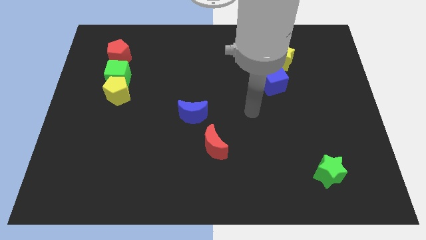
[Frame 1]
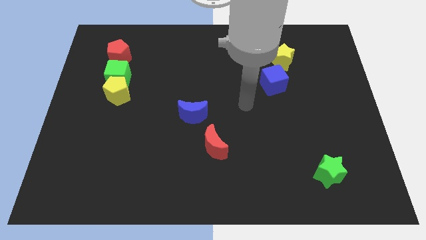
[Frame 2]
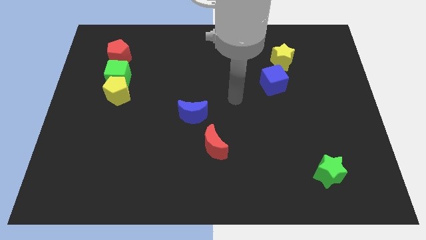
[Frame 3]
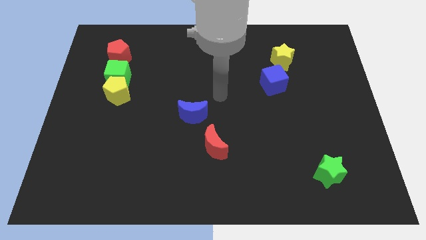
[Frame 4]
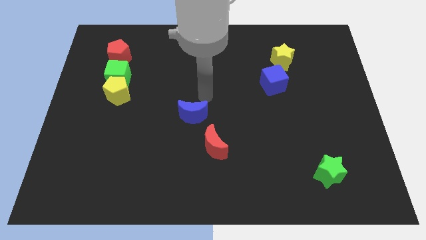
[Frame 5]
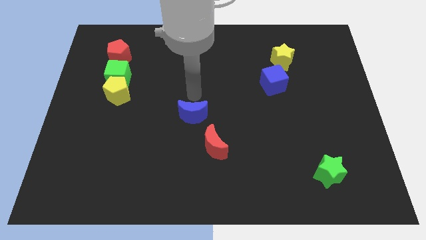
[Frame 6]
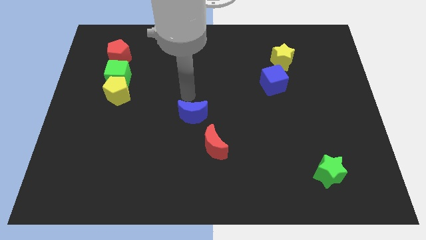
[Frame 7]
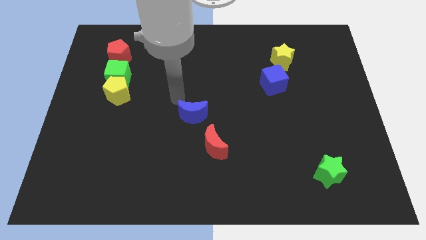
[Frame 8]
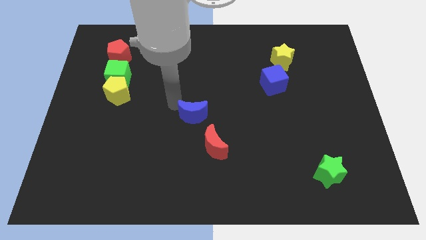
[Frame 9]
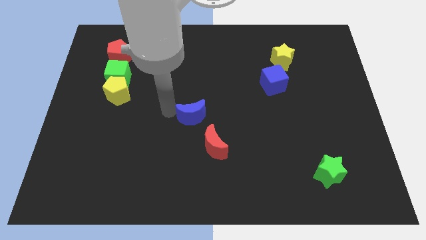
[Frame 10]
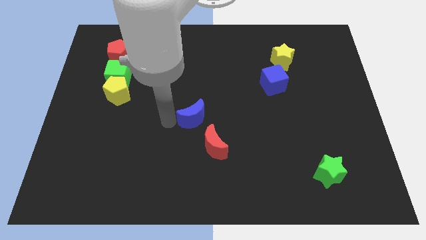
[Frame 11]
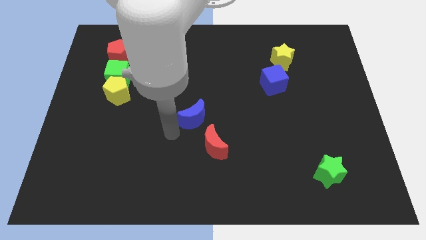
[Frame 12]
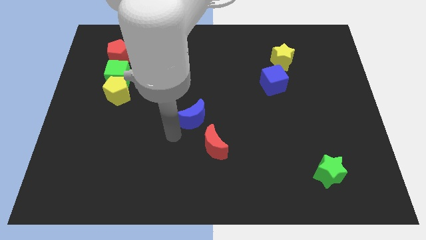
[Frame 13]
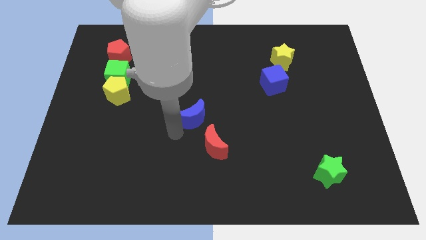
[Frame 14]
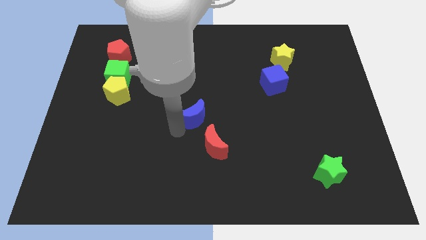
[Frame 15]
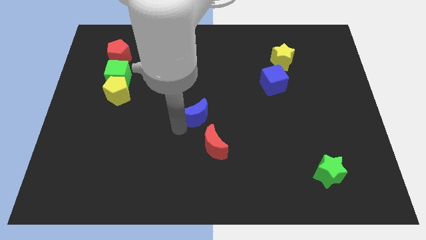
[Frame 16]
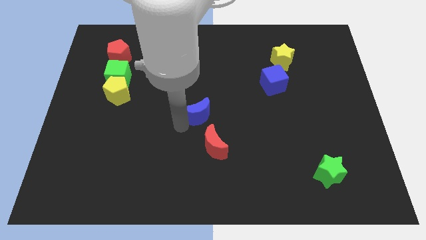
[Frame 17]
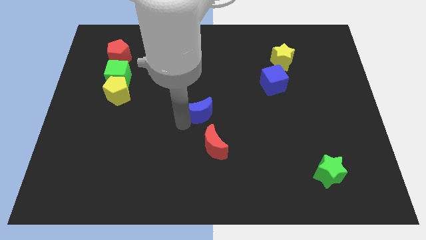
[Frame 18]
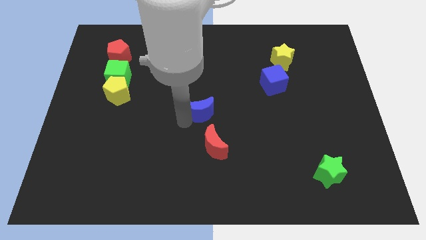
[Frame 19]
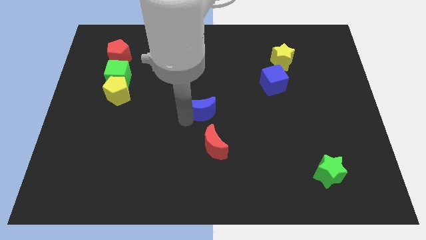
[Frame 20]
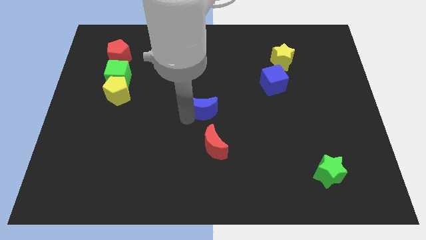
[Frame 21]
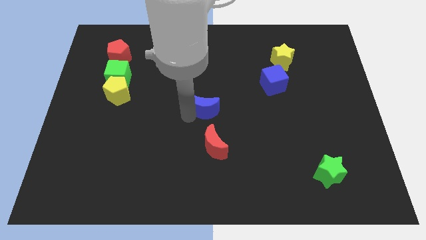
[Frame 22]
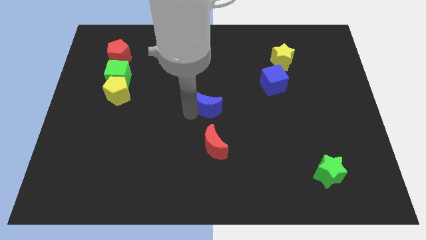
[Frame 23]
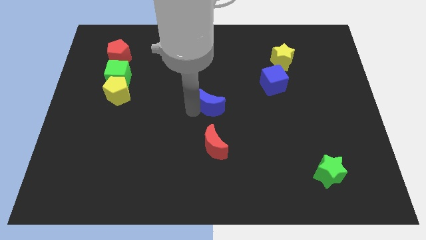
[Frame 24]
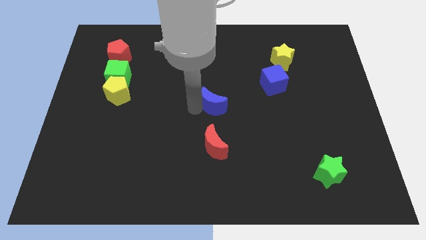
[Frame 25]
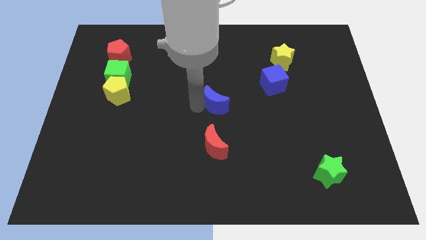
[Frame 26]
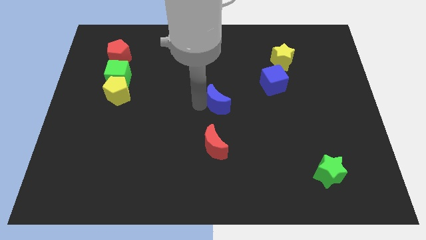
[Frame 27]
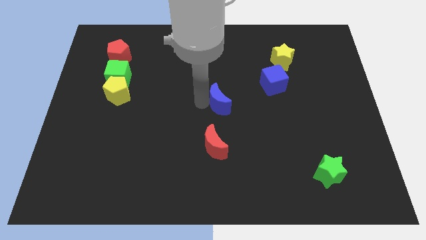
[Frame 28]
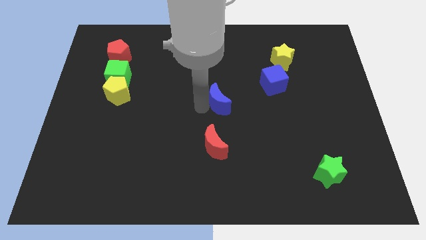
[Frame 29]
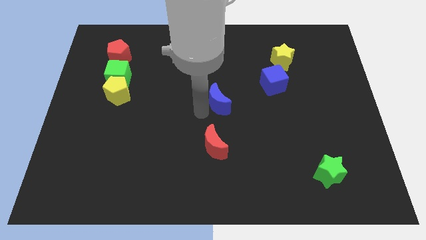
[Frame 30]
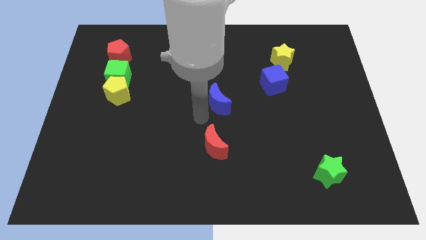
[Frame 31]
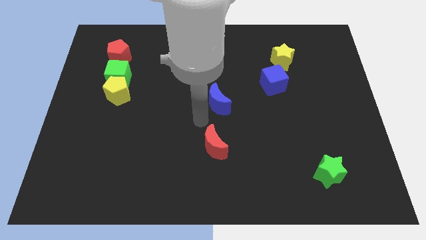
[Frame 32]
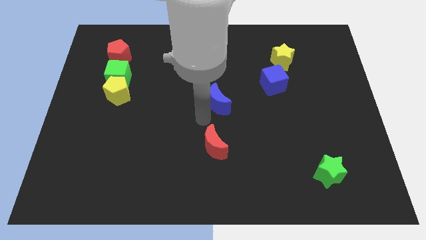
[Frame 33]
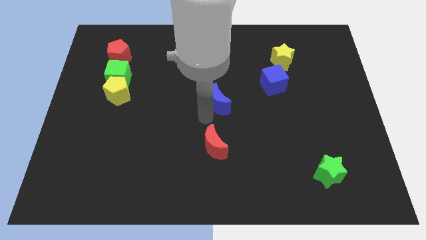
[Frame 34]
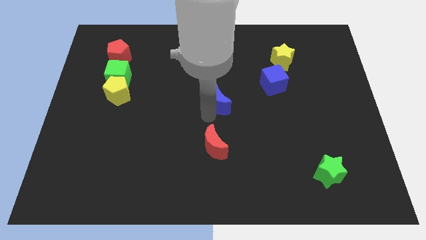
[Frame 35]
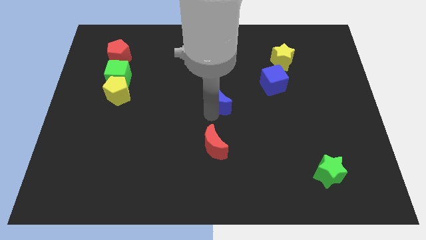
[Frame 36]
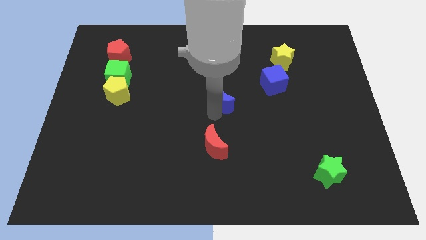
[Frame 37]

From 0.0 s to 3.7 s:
move the blue moon a little bit upwards and to the right

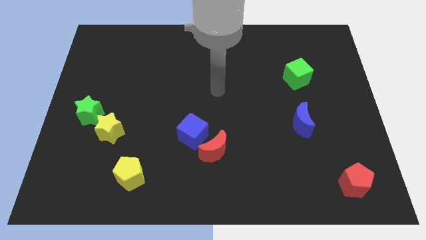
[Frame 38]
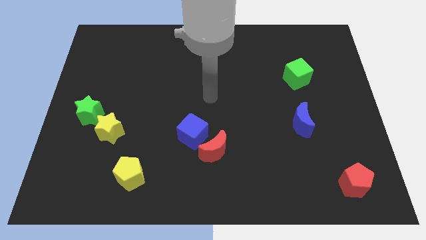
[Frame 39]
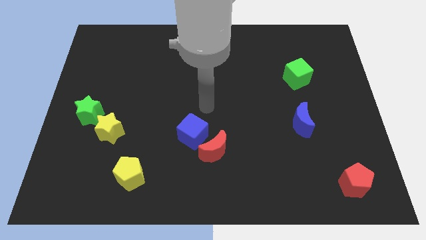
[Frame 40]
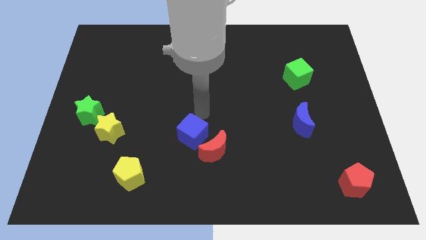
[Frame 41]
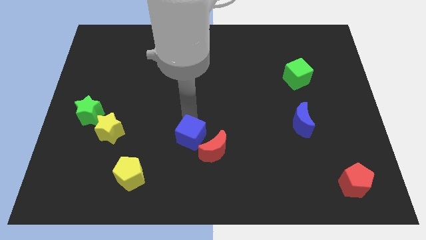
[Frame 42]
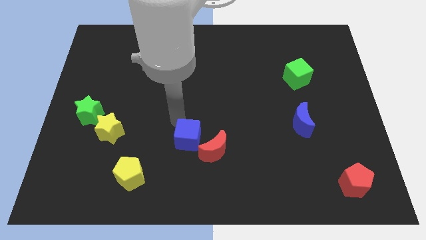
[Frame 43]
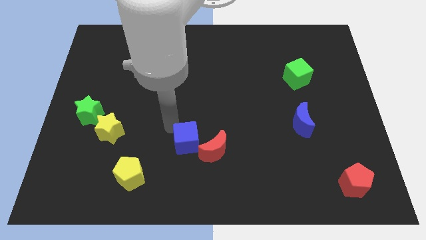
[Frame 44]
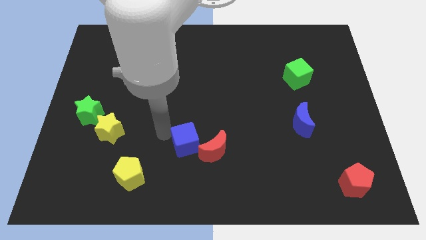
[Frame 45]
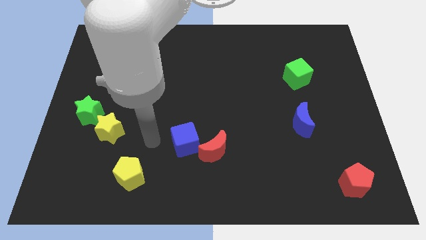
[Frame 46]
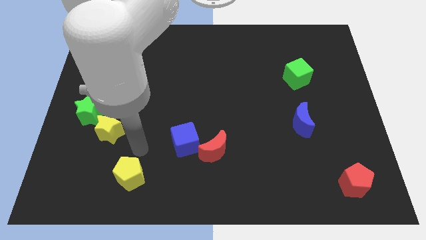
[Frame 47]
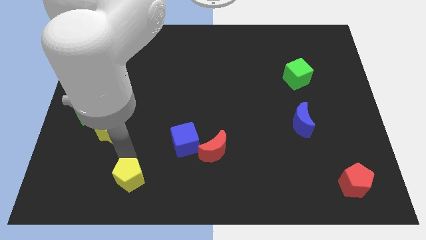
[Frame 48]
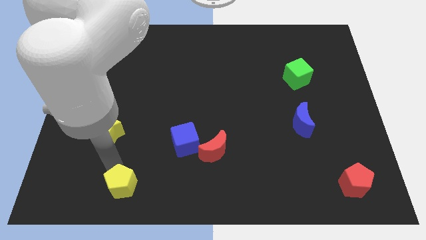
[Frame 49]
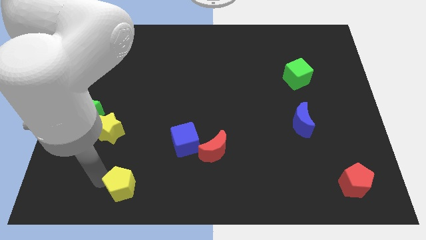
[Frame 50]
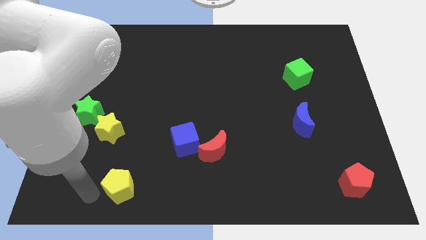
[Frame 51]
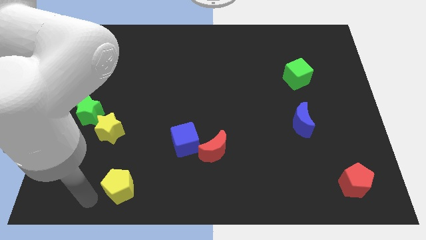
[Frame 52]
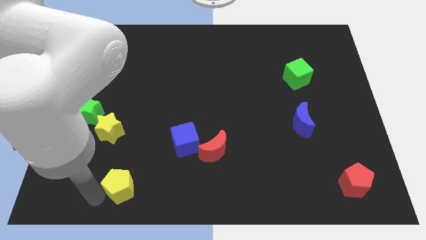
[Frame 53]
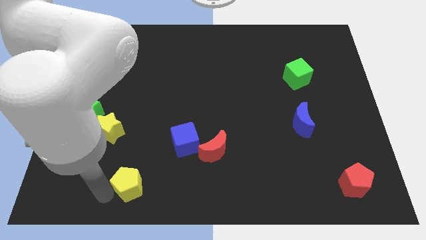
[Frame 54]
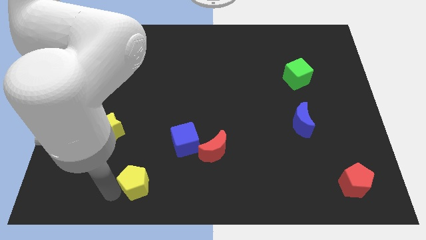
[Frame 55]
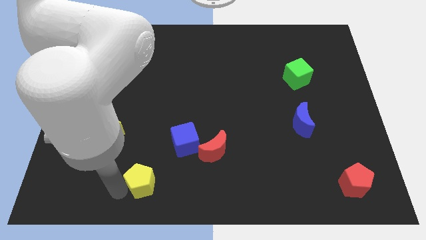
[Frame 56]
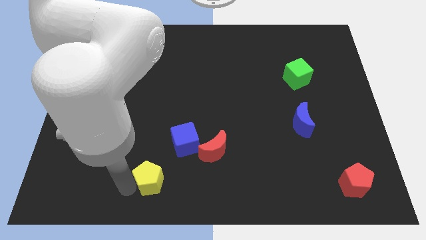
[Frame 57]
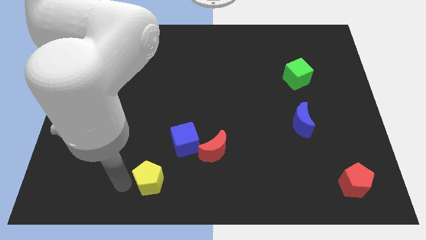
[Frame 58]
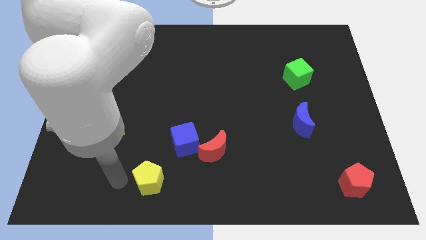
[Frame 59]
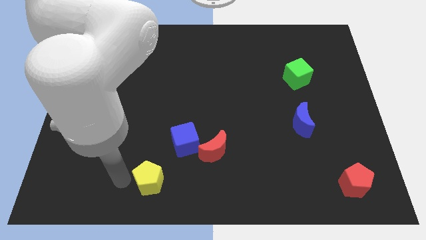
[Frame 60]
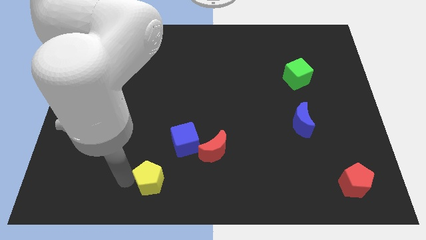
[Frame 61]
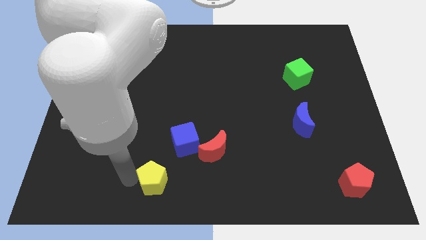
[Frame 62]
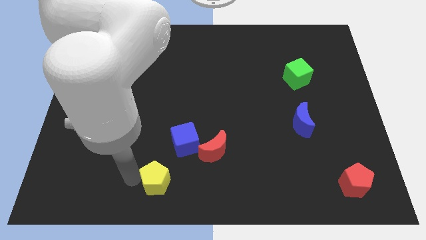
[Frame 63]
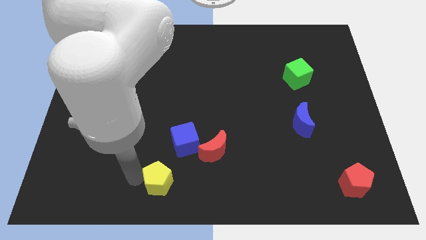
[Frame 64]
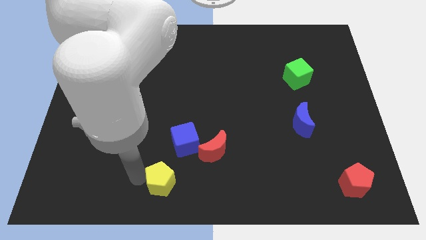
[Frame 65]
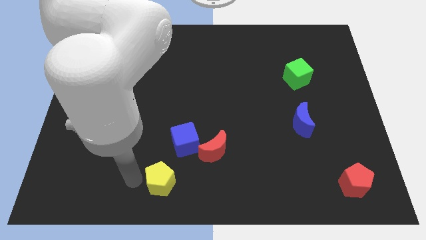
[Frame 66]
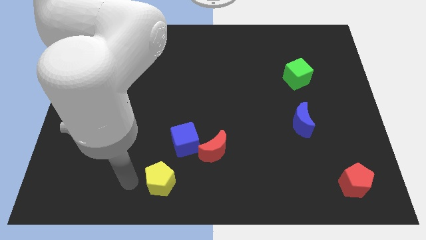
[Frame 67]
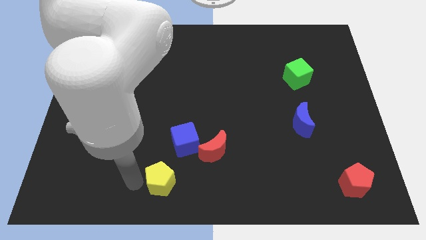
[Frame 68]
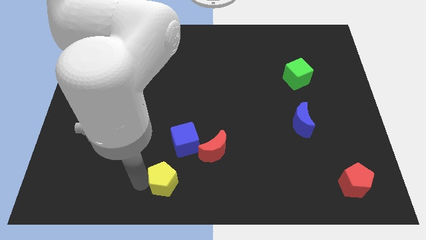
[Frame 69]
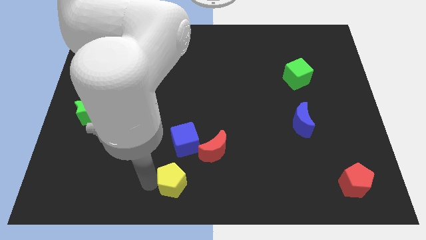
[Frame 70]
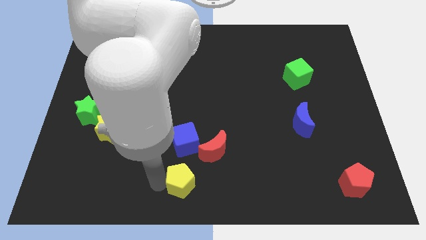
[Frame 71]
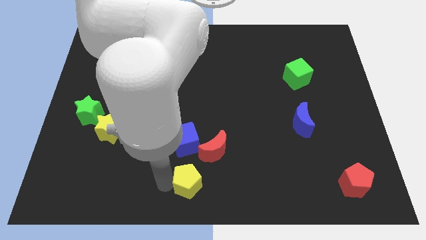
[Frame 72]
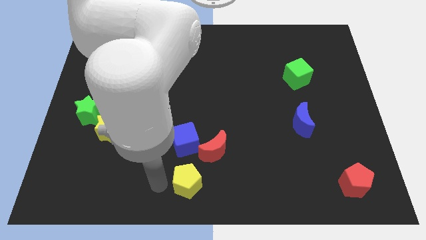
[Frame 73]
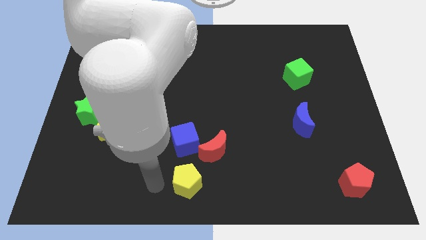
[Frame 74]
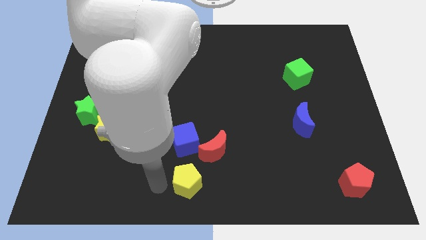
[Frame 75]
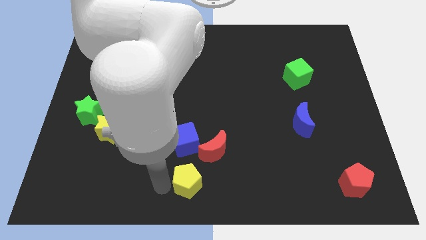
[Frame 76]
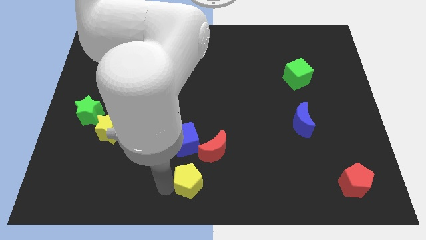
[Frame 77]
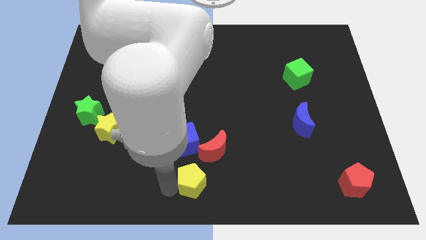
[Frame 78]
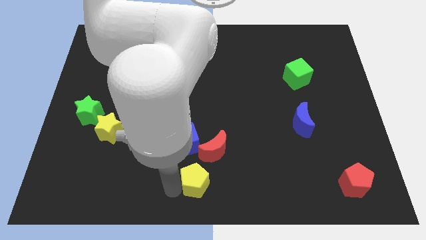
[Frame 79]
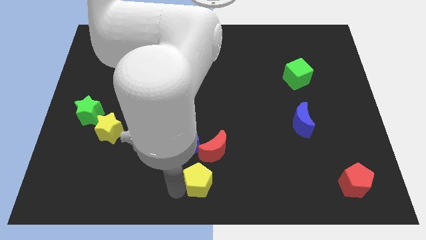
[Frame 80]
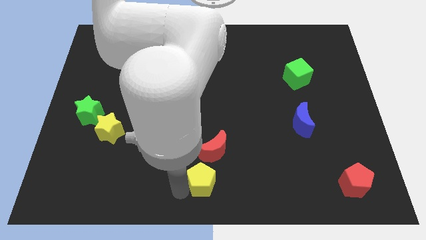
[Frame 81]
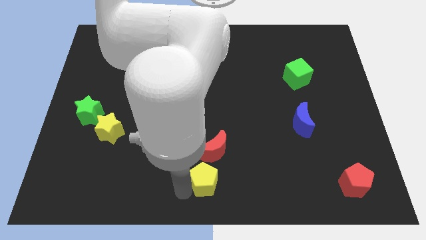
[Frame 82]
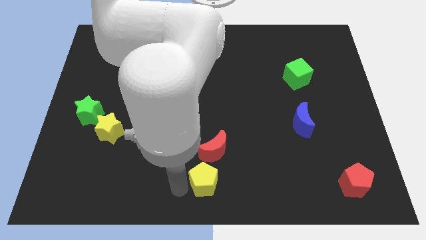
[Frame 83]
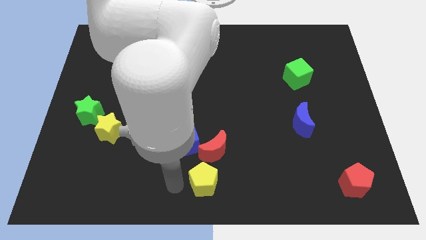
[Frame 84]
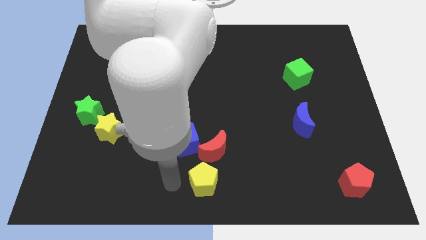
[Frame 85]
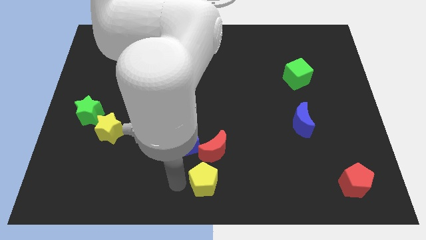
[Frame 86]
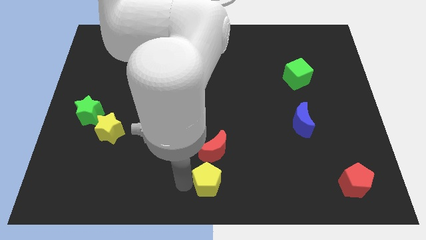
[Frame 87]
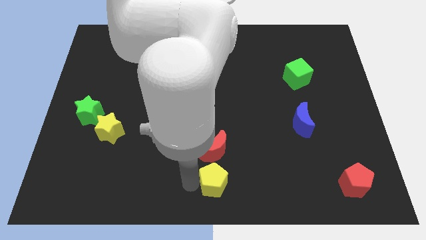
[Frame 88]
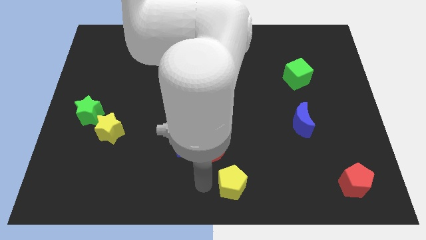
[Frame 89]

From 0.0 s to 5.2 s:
move the yellow pentagon to the right
